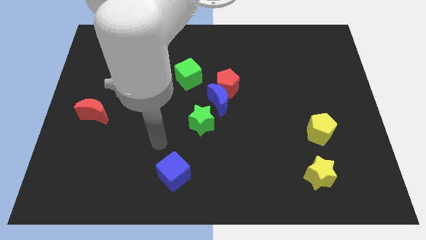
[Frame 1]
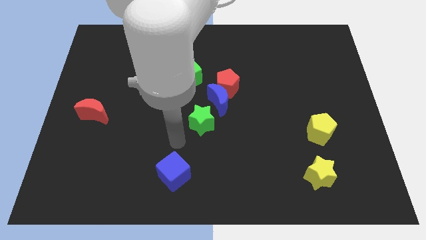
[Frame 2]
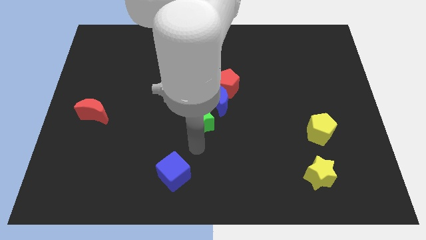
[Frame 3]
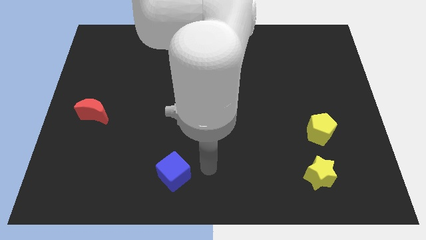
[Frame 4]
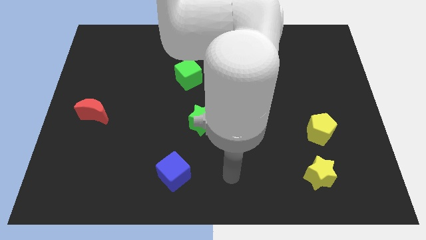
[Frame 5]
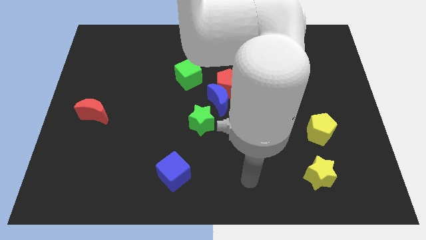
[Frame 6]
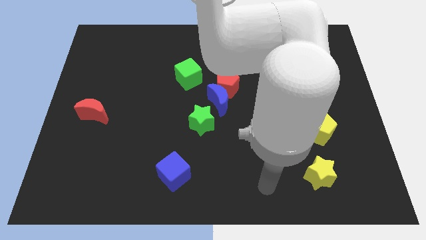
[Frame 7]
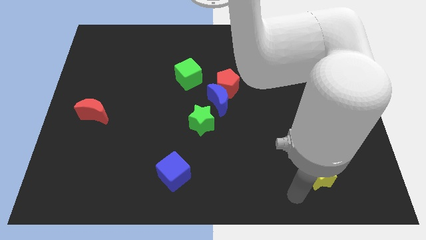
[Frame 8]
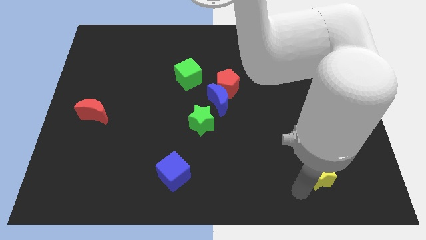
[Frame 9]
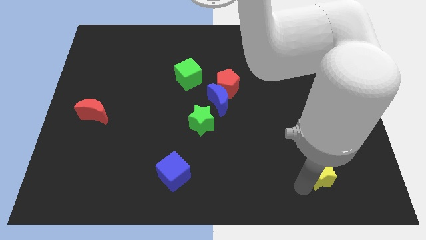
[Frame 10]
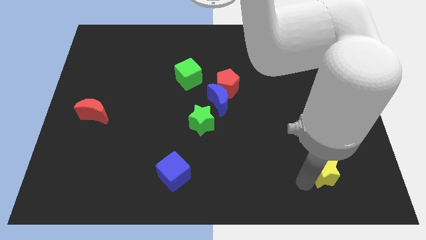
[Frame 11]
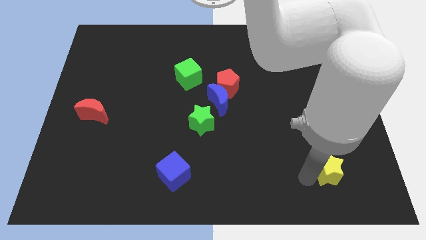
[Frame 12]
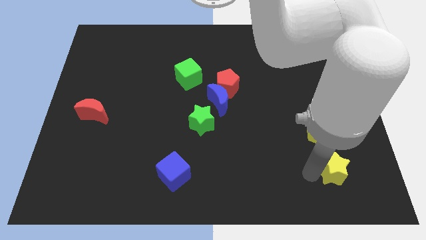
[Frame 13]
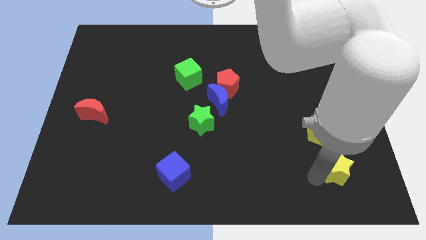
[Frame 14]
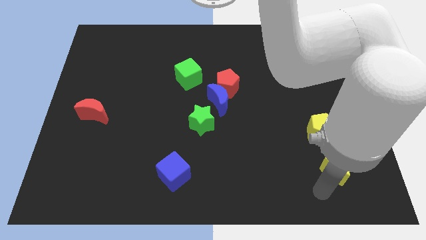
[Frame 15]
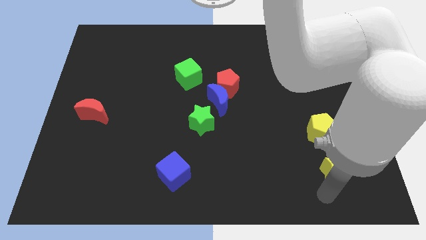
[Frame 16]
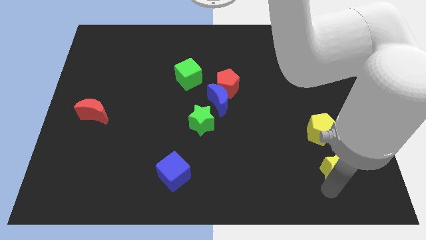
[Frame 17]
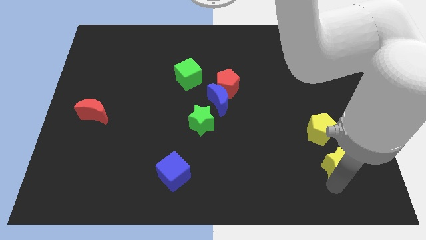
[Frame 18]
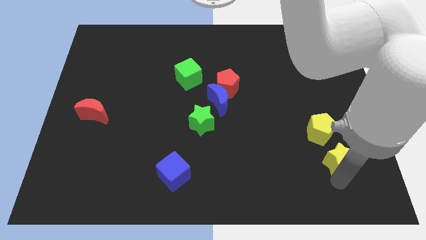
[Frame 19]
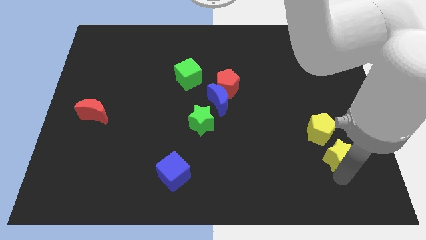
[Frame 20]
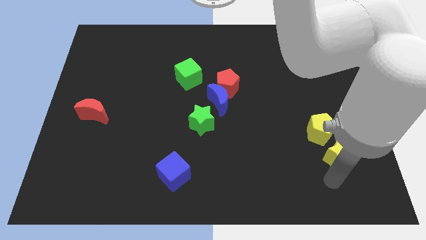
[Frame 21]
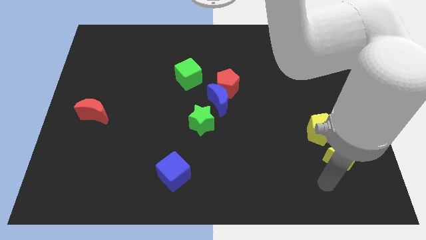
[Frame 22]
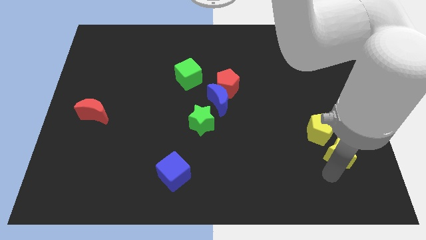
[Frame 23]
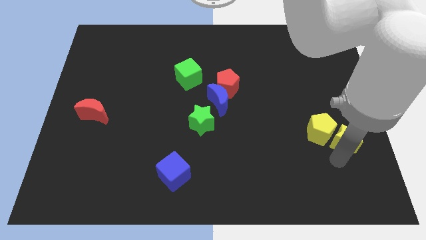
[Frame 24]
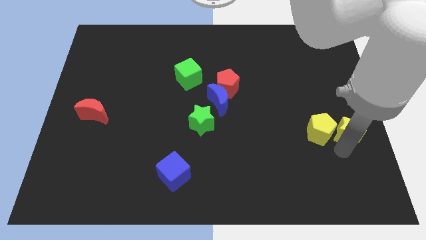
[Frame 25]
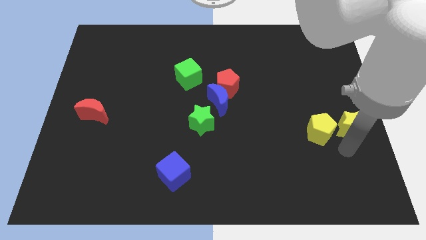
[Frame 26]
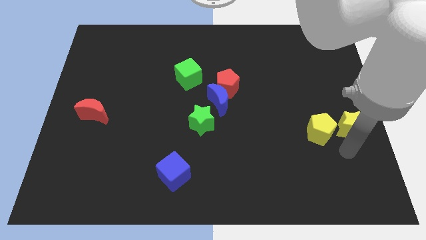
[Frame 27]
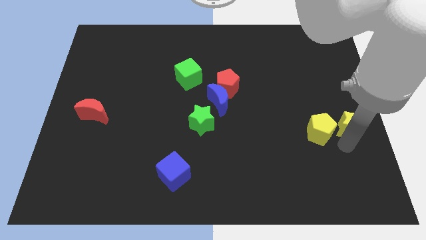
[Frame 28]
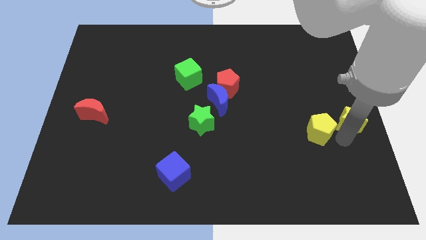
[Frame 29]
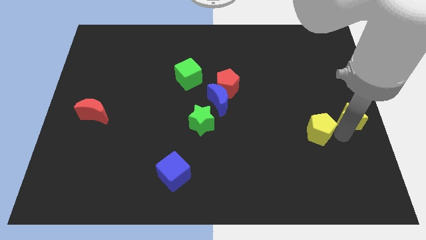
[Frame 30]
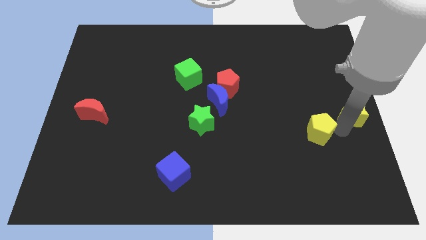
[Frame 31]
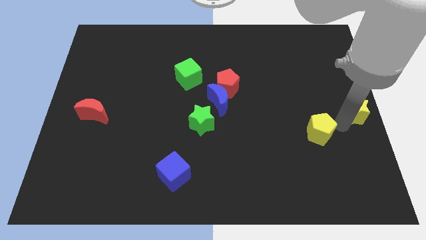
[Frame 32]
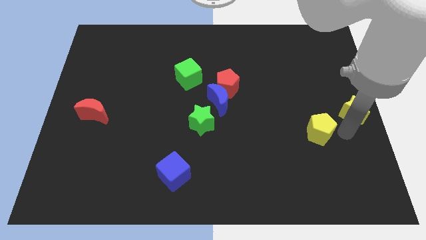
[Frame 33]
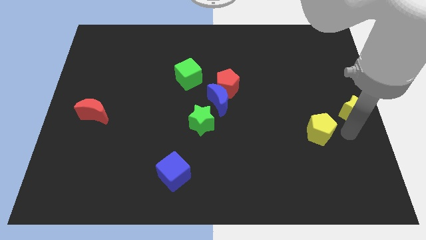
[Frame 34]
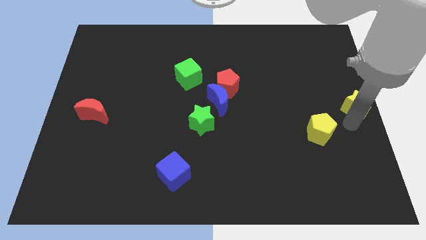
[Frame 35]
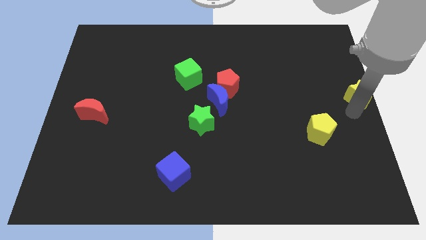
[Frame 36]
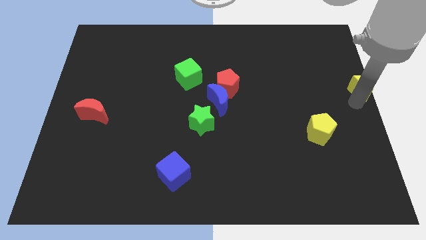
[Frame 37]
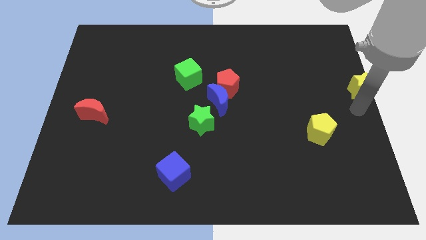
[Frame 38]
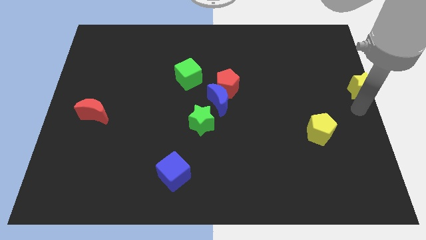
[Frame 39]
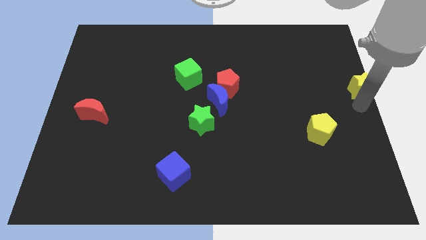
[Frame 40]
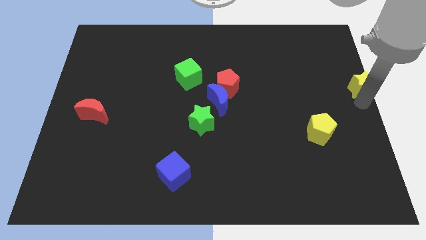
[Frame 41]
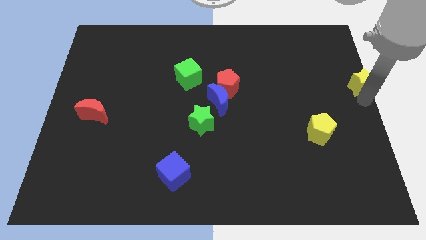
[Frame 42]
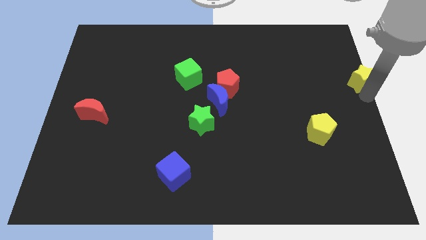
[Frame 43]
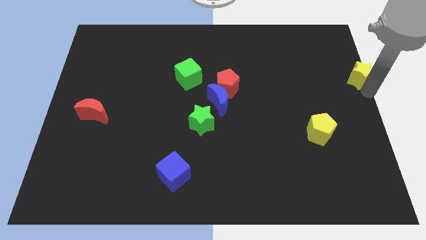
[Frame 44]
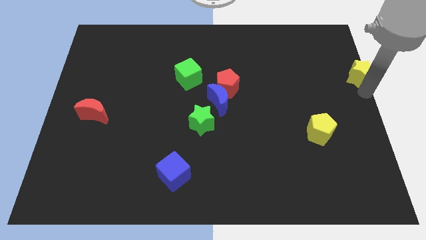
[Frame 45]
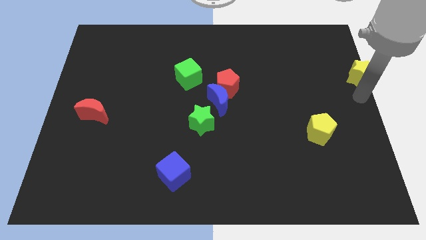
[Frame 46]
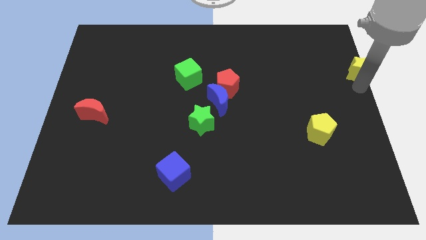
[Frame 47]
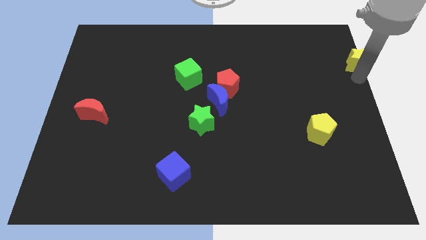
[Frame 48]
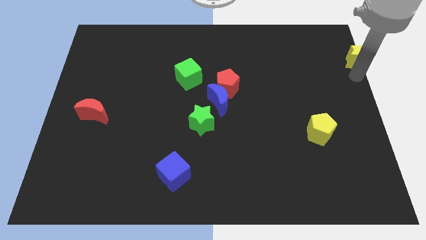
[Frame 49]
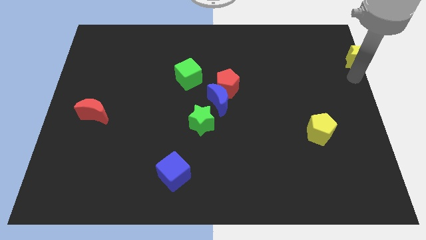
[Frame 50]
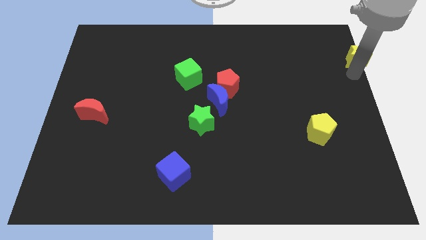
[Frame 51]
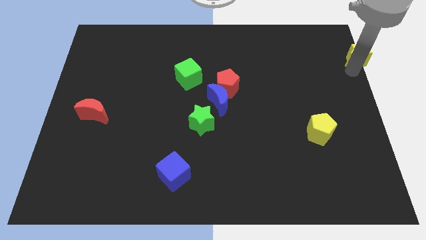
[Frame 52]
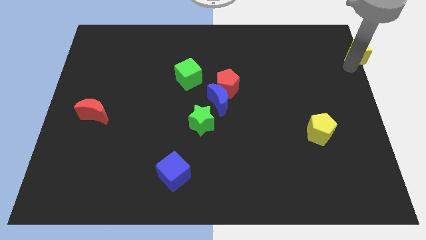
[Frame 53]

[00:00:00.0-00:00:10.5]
push the yellow star to the upper right corner

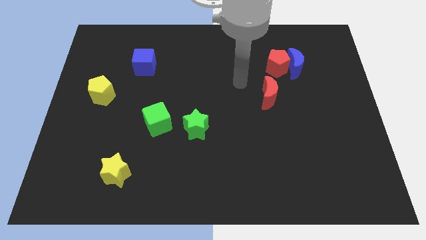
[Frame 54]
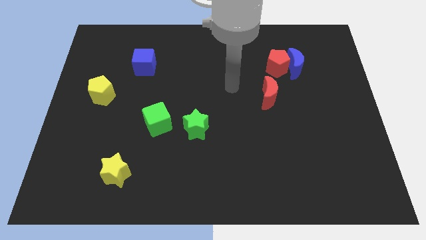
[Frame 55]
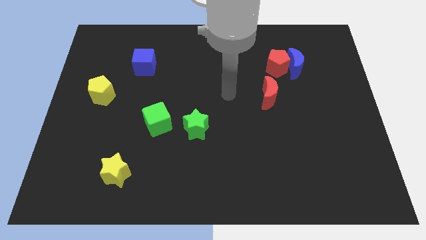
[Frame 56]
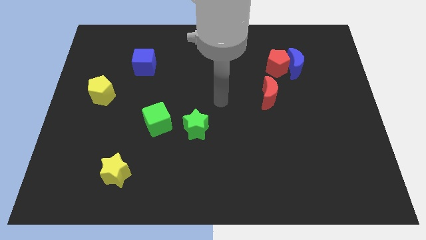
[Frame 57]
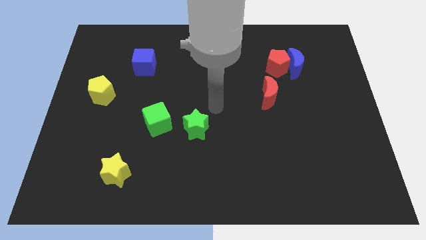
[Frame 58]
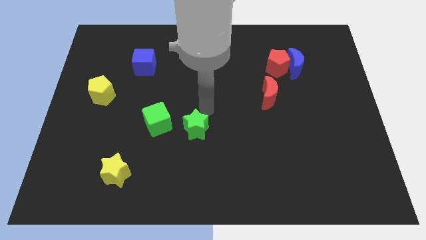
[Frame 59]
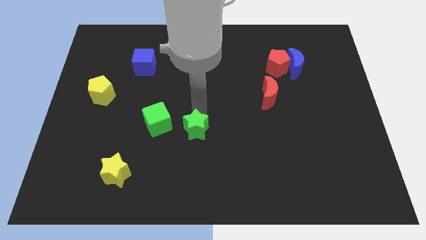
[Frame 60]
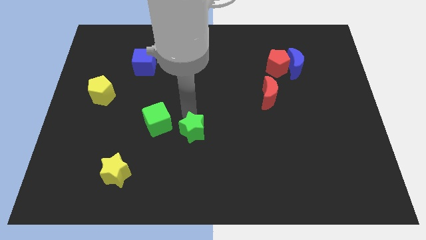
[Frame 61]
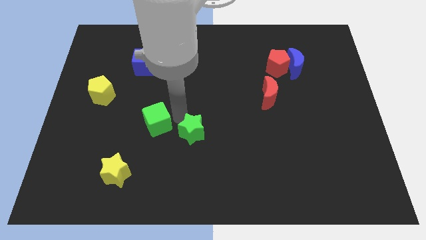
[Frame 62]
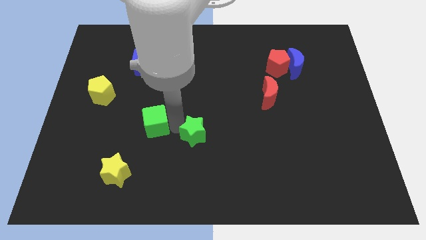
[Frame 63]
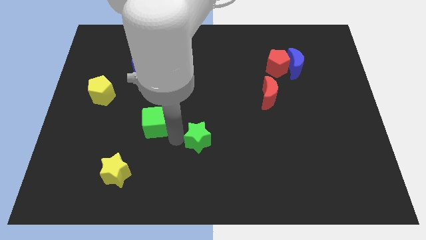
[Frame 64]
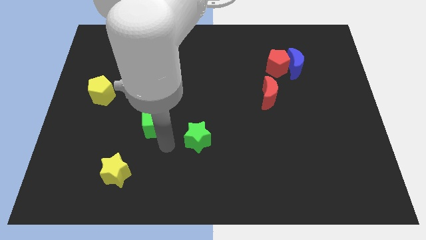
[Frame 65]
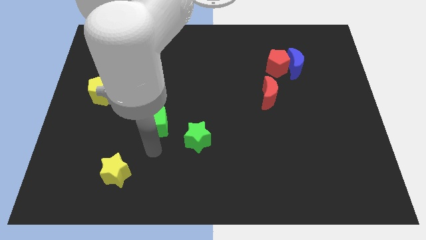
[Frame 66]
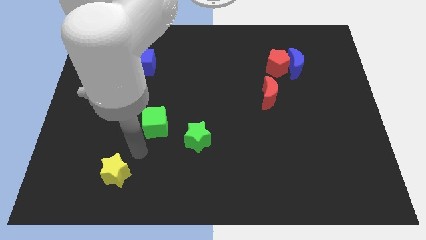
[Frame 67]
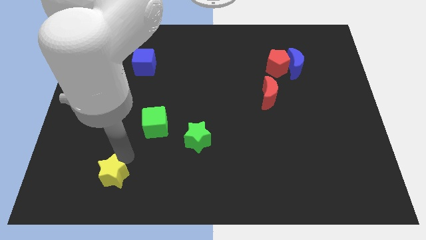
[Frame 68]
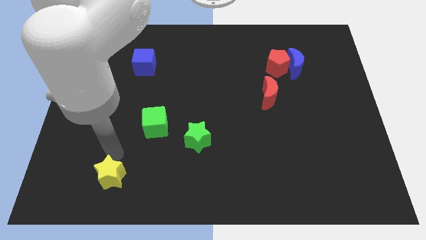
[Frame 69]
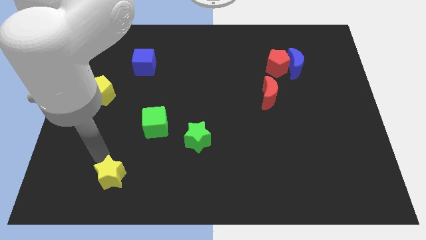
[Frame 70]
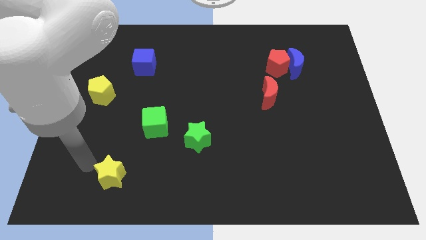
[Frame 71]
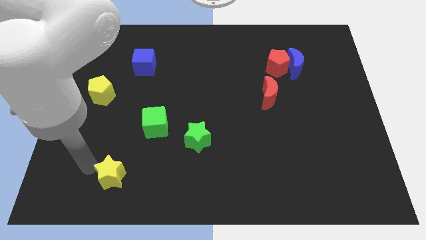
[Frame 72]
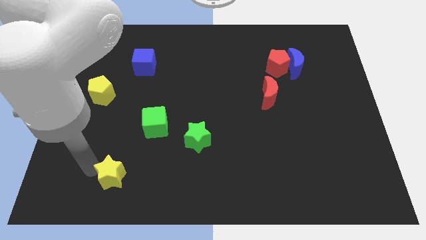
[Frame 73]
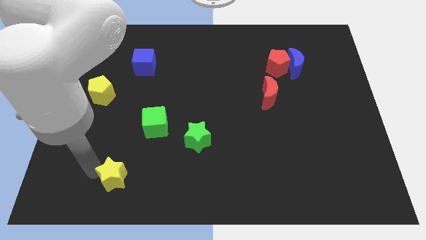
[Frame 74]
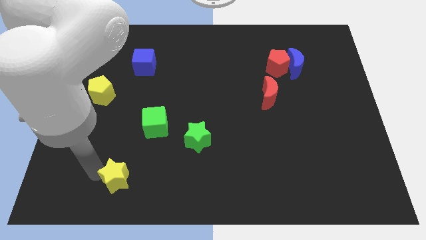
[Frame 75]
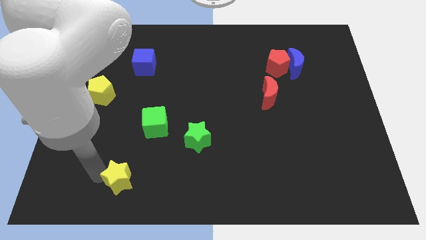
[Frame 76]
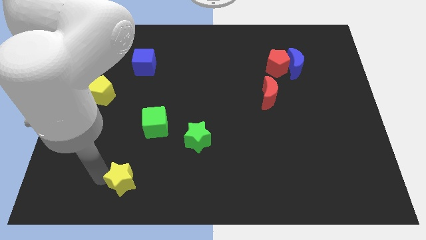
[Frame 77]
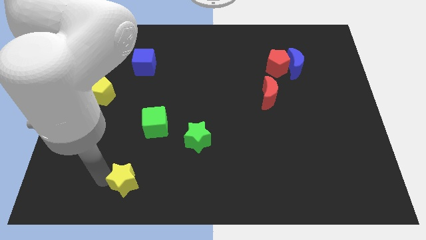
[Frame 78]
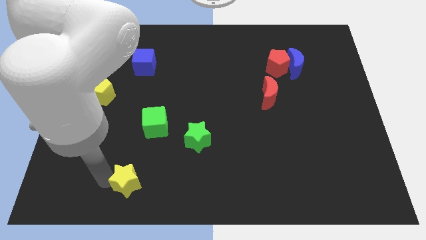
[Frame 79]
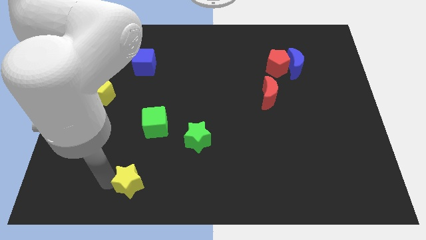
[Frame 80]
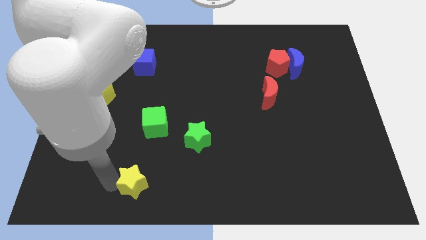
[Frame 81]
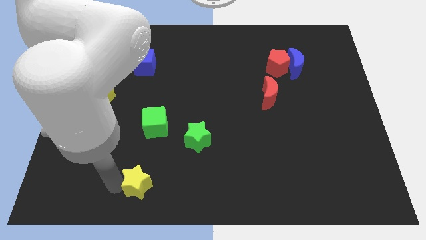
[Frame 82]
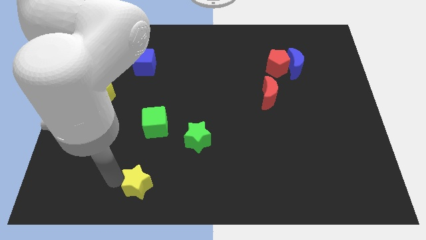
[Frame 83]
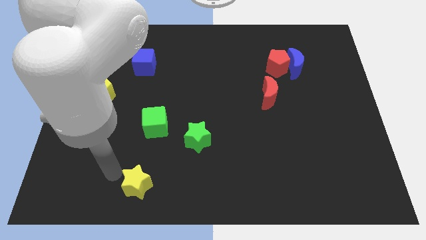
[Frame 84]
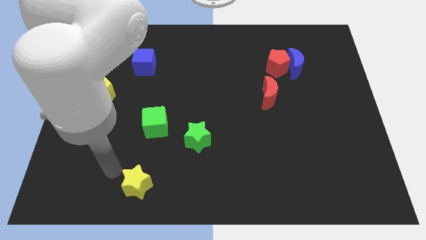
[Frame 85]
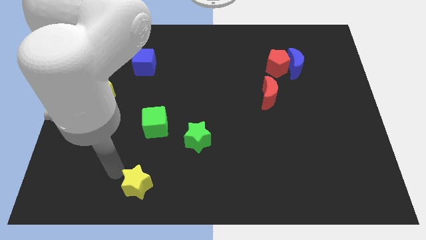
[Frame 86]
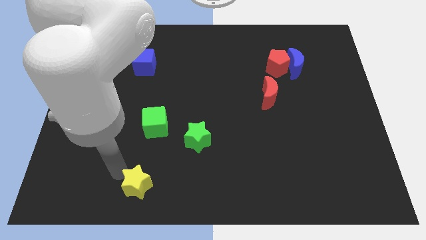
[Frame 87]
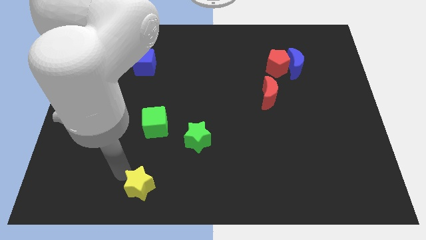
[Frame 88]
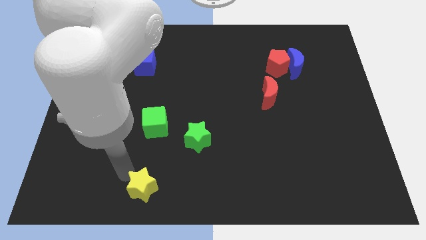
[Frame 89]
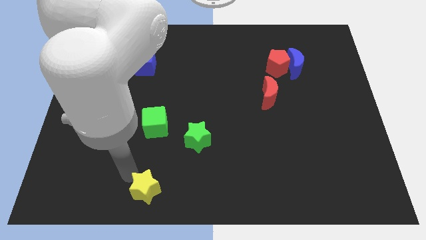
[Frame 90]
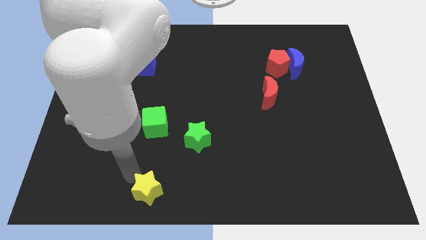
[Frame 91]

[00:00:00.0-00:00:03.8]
put the yellow star to the bottom
